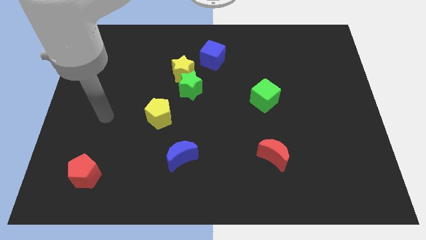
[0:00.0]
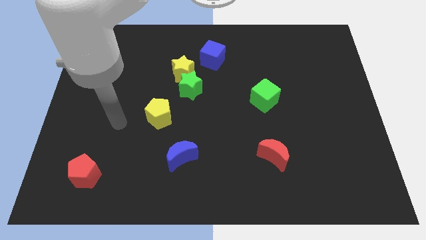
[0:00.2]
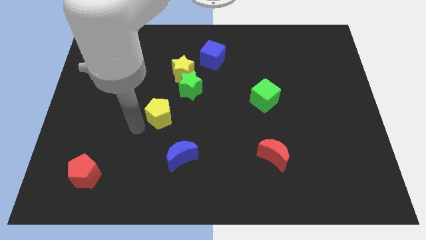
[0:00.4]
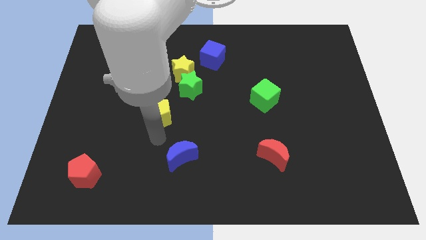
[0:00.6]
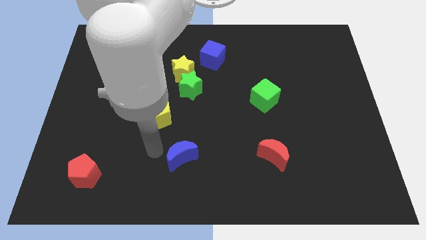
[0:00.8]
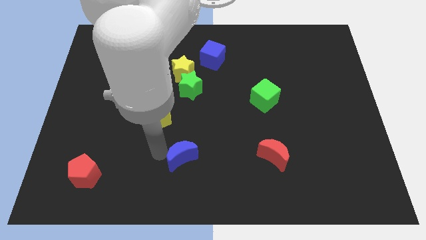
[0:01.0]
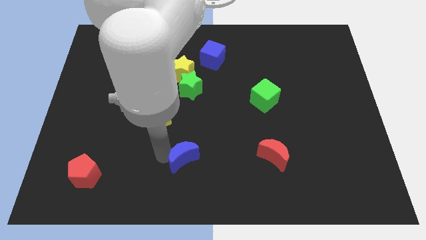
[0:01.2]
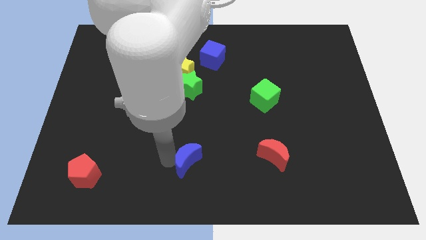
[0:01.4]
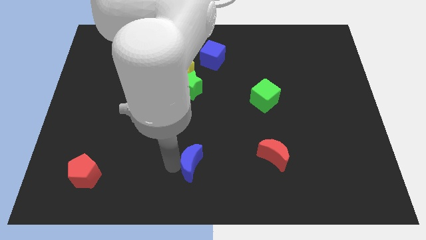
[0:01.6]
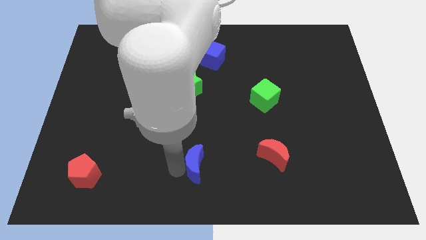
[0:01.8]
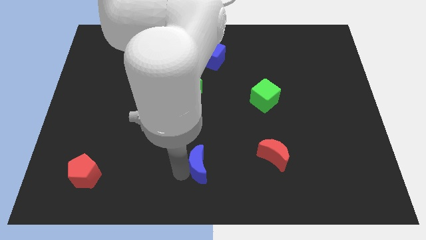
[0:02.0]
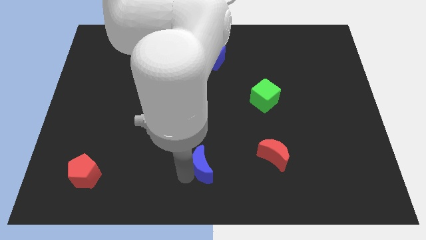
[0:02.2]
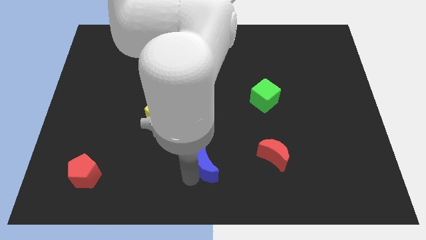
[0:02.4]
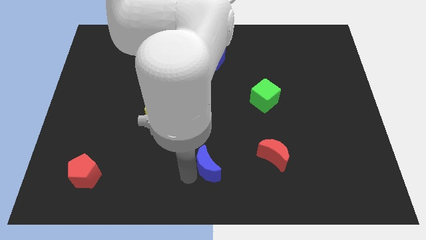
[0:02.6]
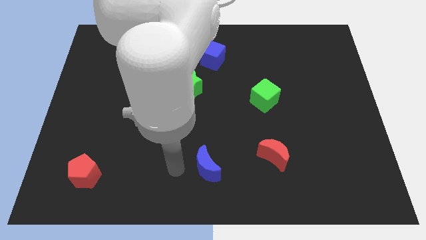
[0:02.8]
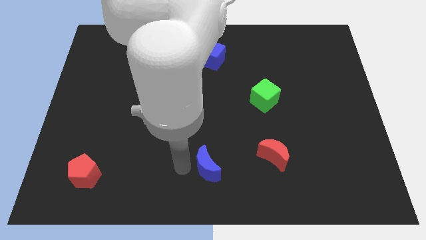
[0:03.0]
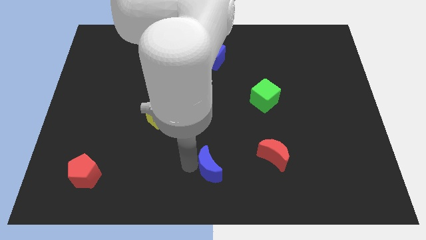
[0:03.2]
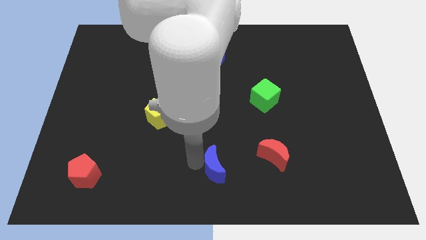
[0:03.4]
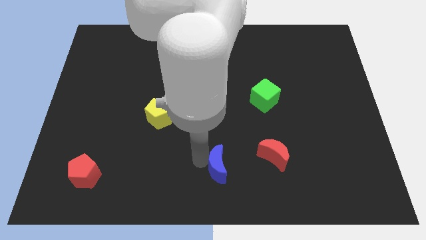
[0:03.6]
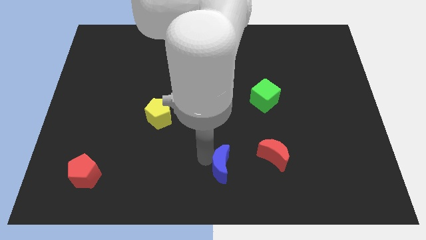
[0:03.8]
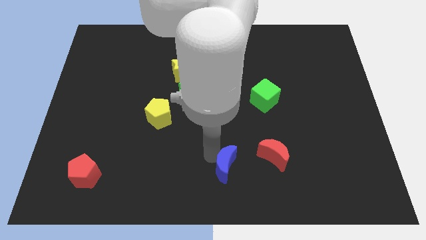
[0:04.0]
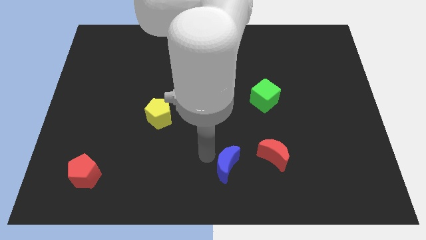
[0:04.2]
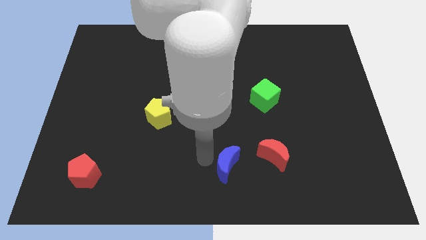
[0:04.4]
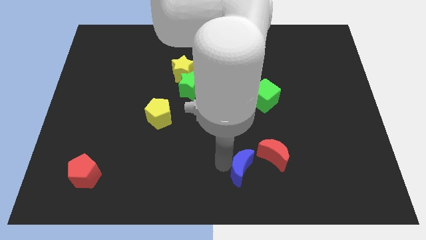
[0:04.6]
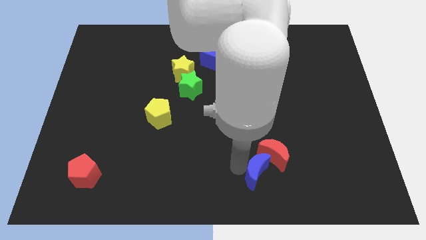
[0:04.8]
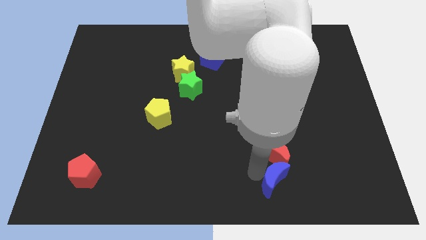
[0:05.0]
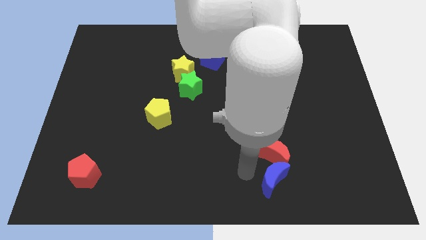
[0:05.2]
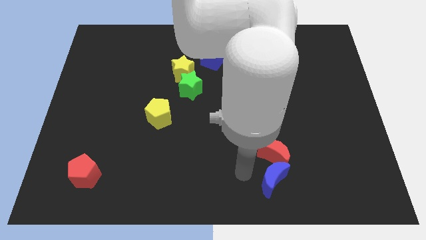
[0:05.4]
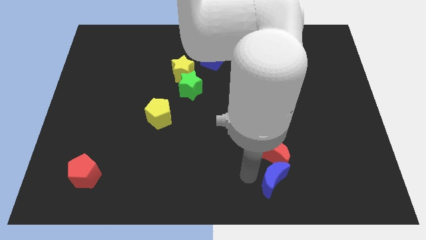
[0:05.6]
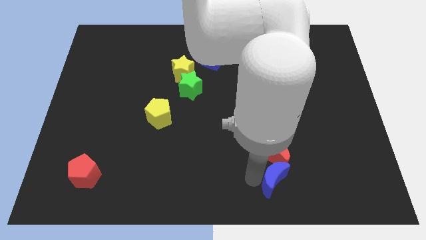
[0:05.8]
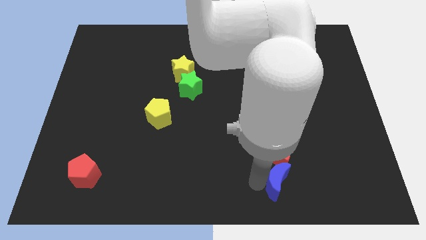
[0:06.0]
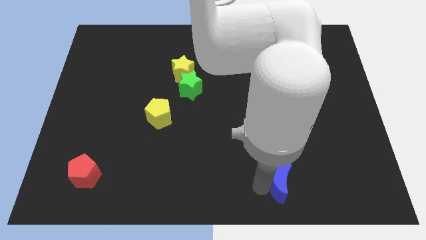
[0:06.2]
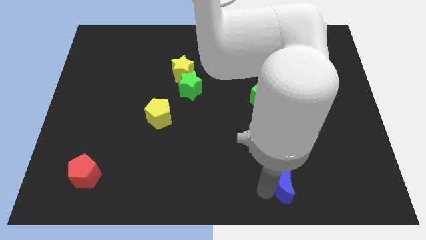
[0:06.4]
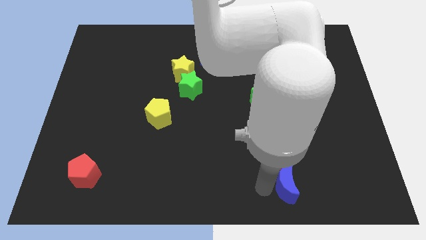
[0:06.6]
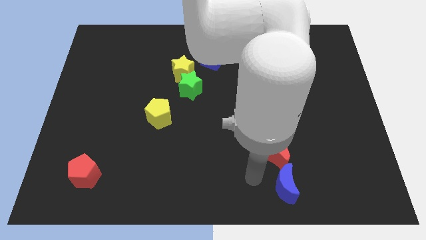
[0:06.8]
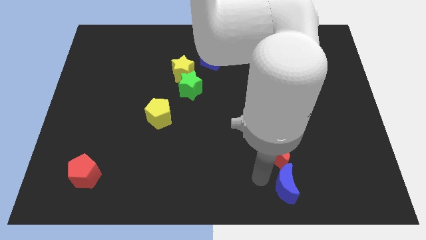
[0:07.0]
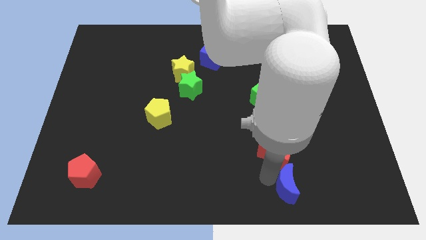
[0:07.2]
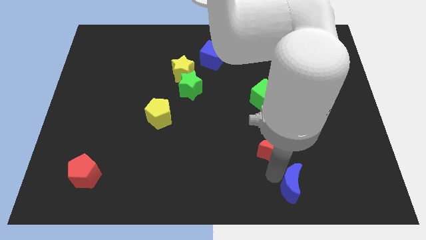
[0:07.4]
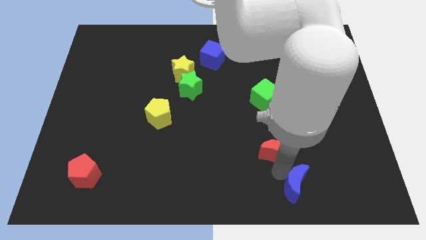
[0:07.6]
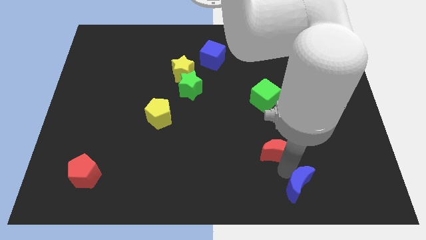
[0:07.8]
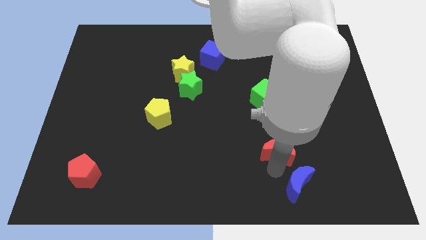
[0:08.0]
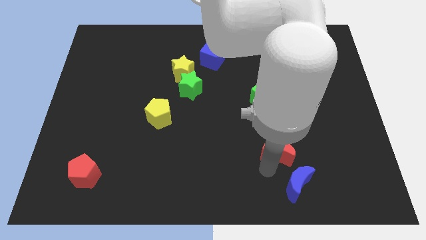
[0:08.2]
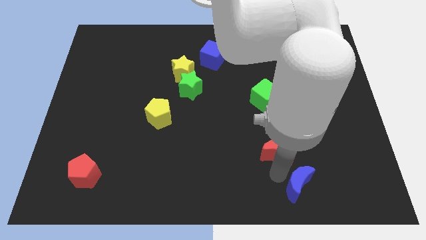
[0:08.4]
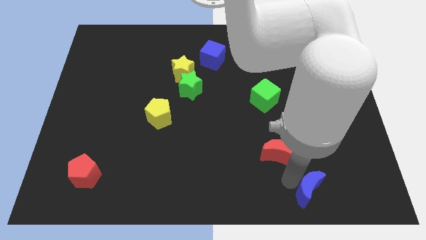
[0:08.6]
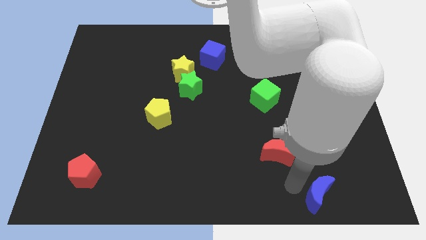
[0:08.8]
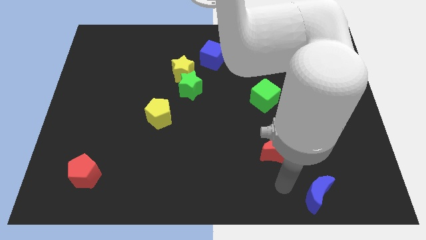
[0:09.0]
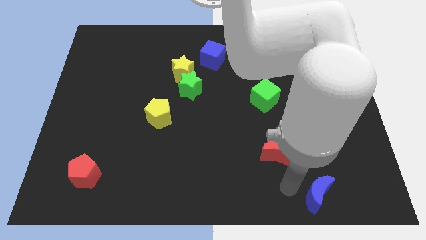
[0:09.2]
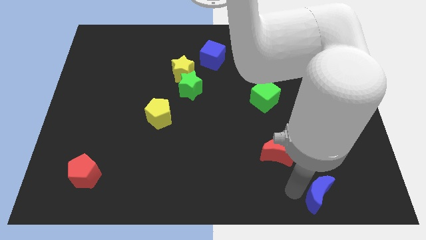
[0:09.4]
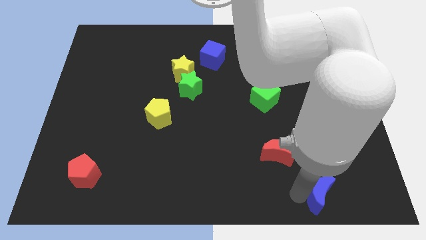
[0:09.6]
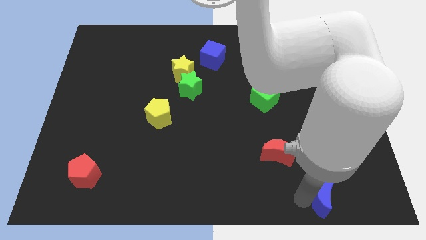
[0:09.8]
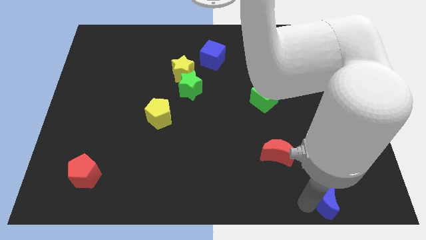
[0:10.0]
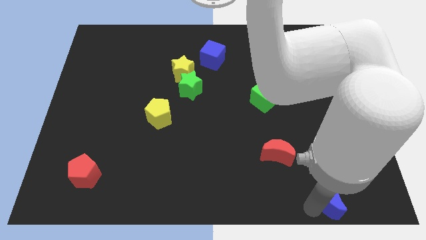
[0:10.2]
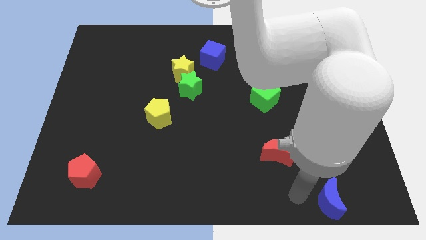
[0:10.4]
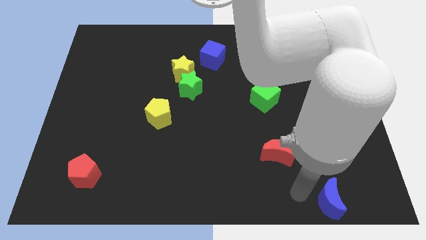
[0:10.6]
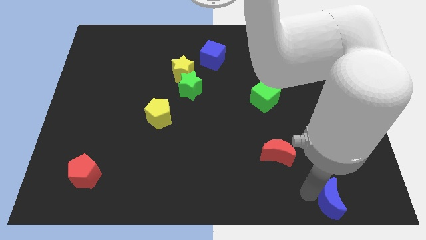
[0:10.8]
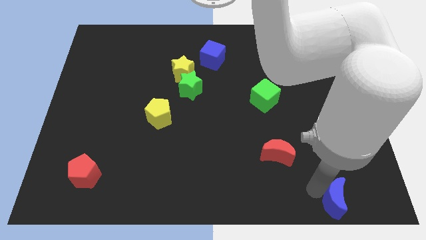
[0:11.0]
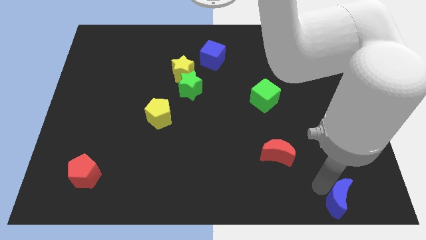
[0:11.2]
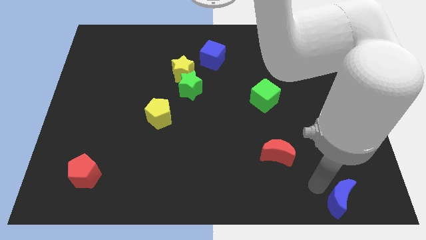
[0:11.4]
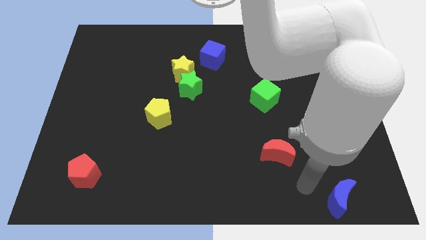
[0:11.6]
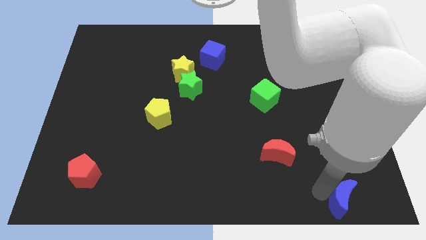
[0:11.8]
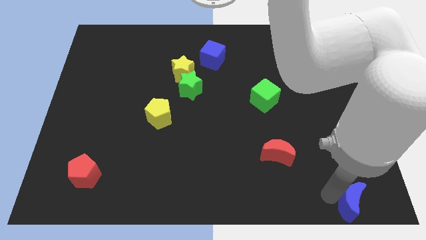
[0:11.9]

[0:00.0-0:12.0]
push the blue moon to the bottom right
